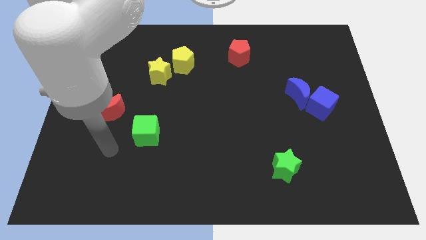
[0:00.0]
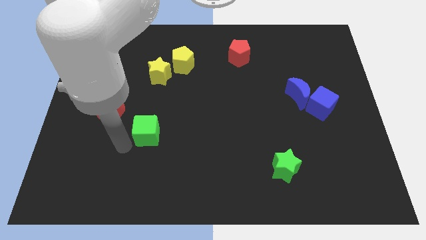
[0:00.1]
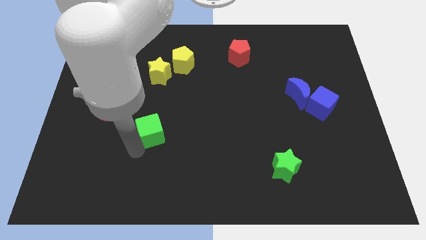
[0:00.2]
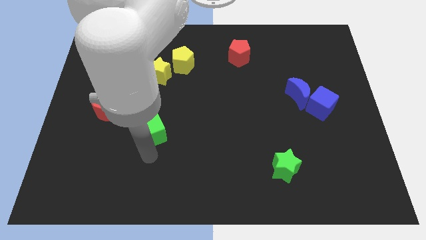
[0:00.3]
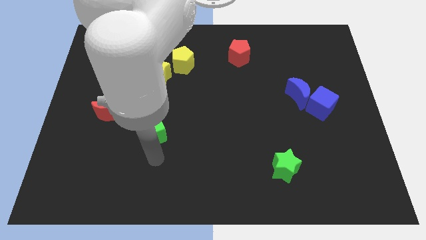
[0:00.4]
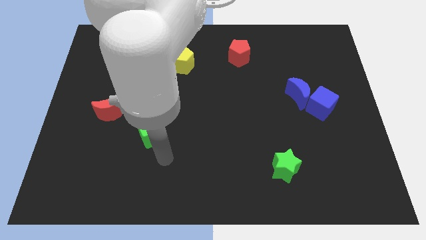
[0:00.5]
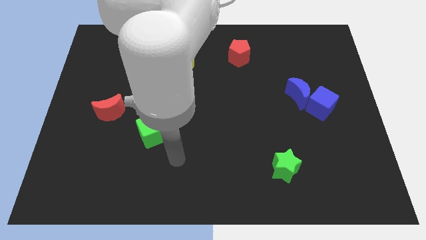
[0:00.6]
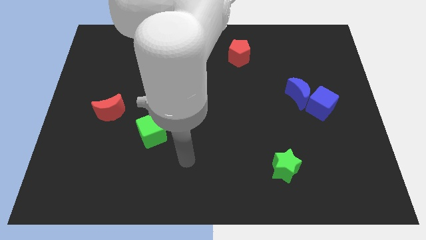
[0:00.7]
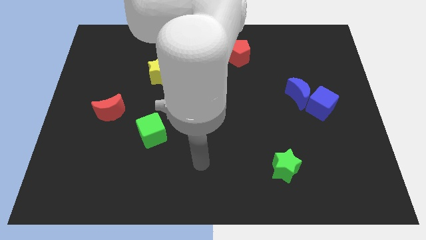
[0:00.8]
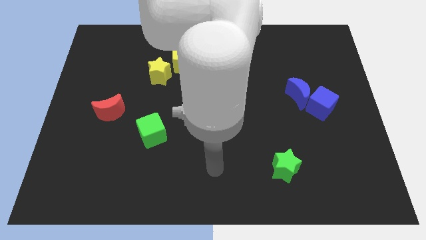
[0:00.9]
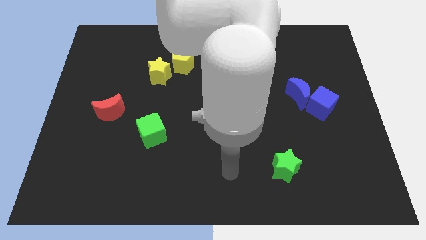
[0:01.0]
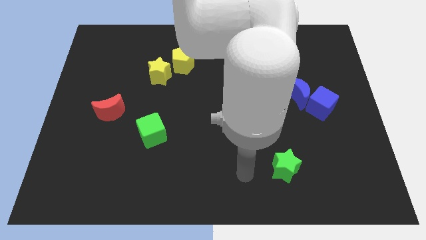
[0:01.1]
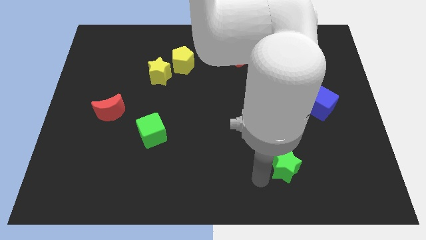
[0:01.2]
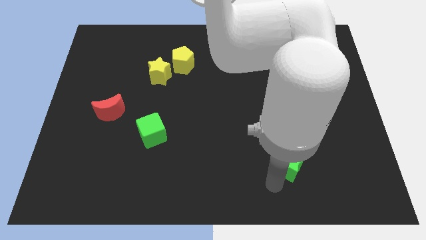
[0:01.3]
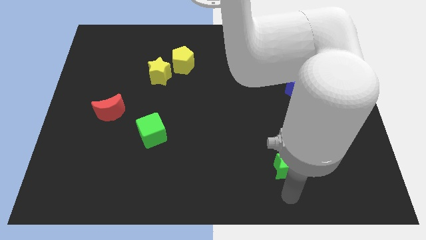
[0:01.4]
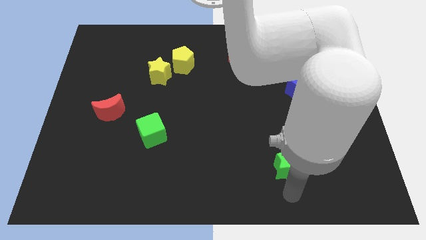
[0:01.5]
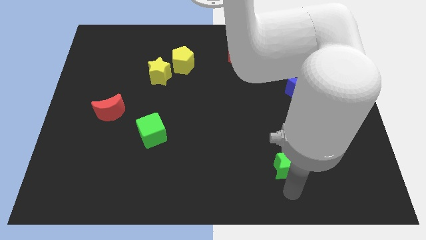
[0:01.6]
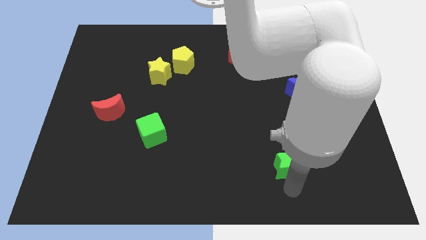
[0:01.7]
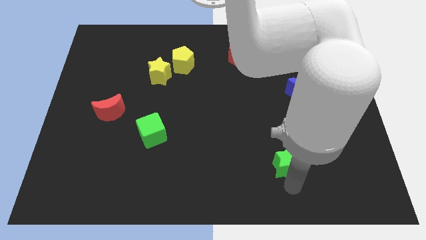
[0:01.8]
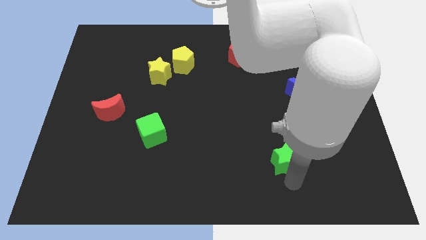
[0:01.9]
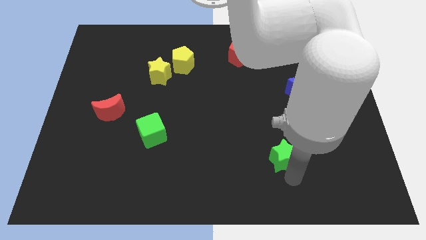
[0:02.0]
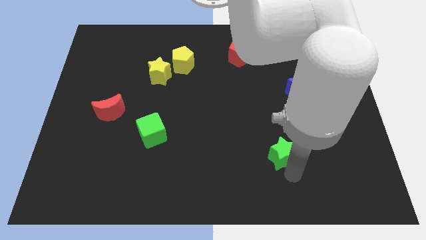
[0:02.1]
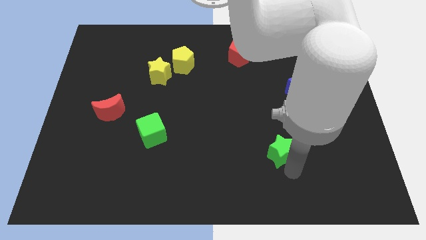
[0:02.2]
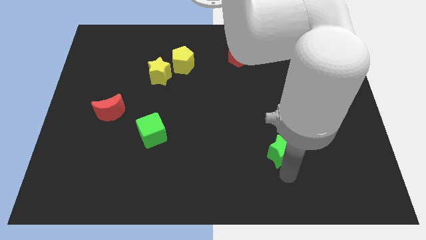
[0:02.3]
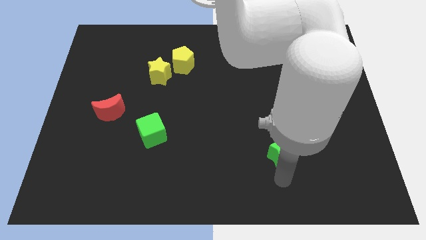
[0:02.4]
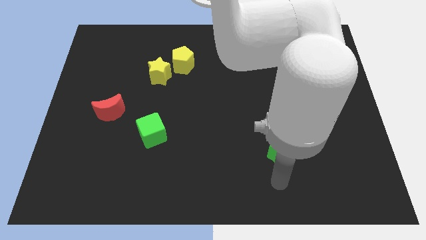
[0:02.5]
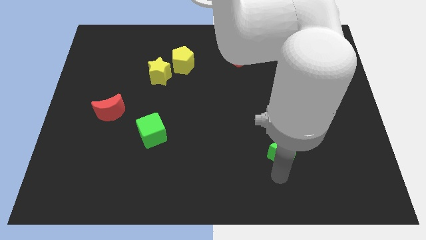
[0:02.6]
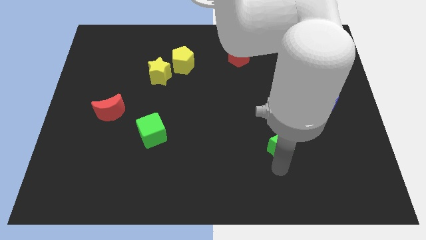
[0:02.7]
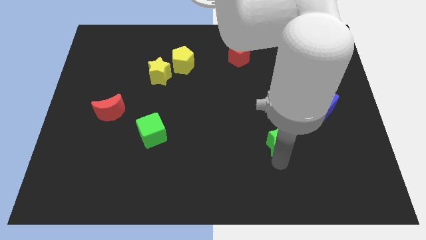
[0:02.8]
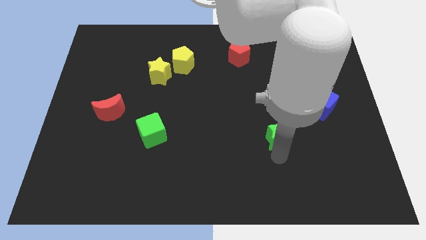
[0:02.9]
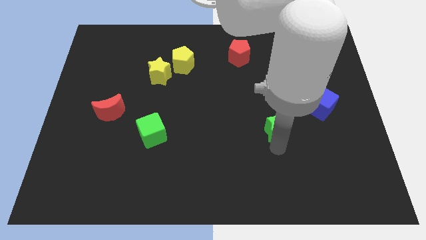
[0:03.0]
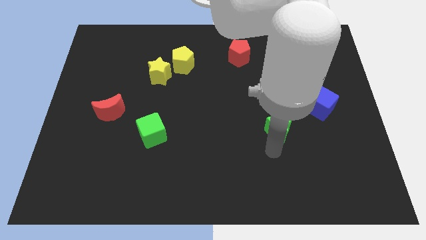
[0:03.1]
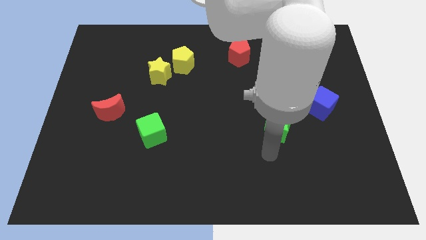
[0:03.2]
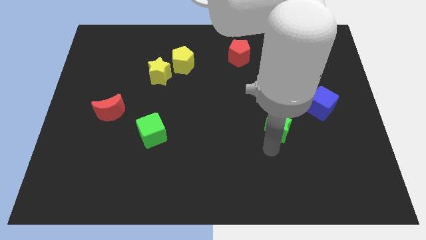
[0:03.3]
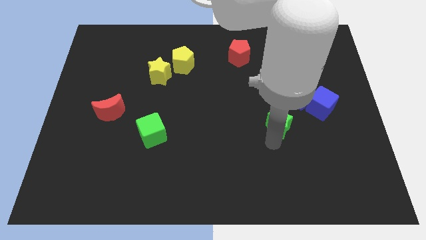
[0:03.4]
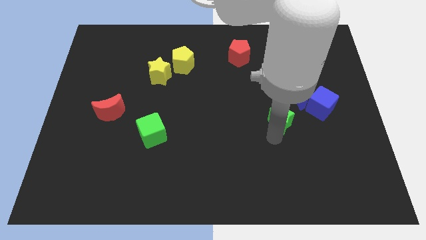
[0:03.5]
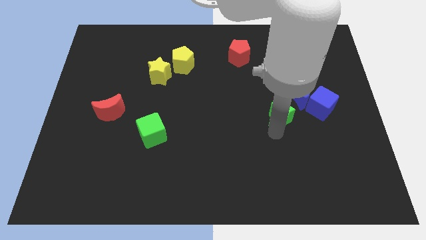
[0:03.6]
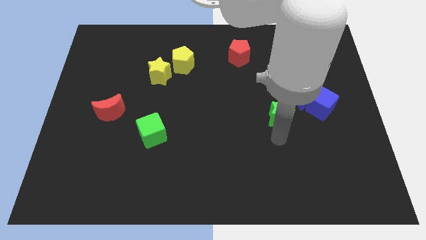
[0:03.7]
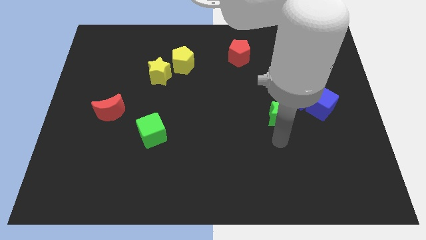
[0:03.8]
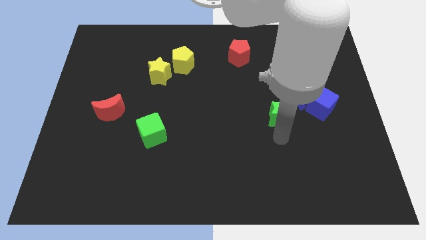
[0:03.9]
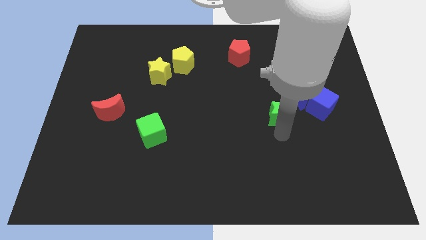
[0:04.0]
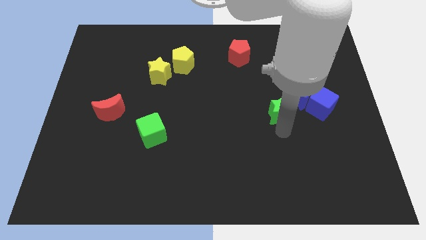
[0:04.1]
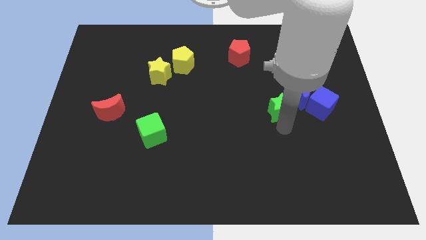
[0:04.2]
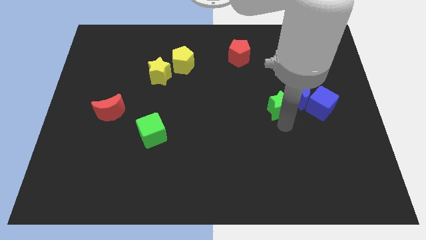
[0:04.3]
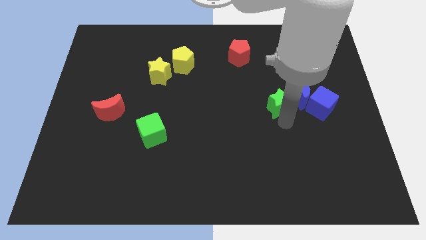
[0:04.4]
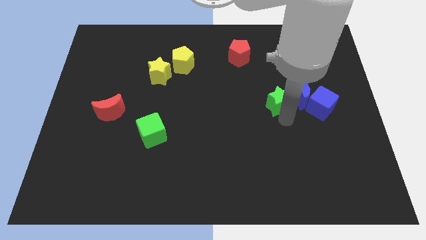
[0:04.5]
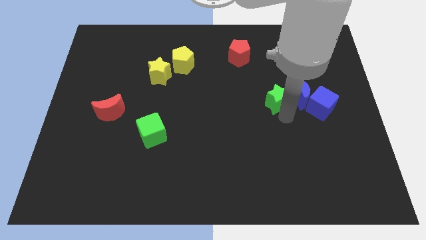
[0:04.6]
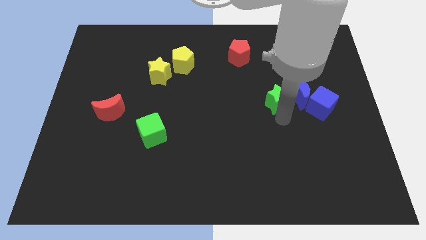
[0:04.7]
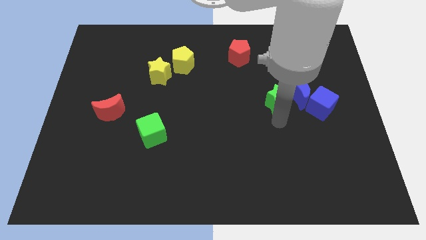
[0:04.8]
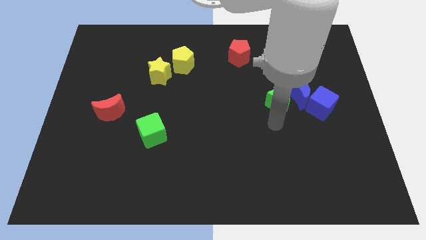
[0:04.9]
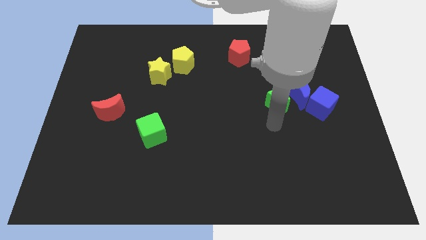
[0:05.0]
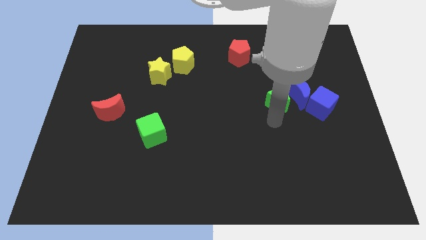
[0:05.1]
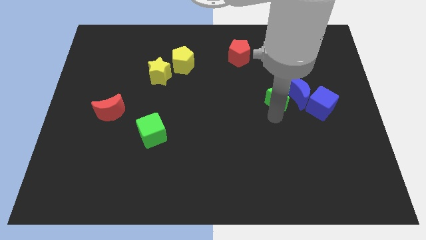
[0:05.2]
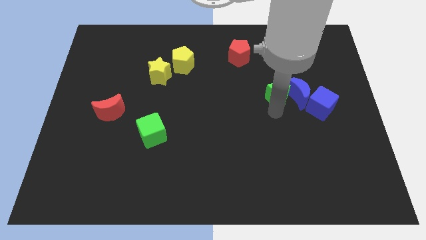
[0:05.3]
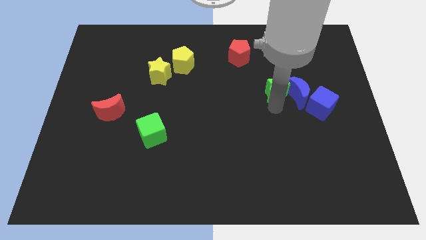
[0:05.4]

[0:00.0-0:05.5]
push the green star upwards

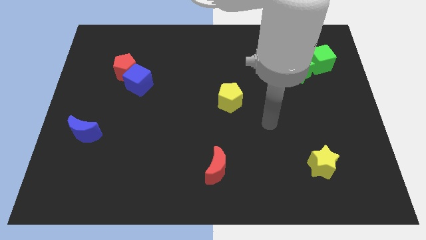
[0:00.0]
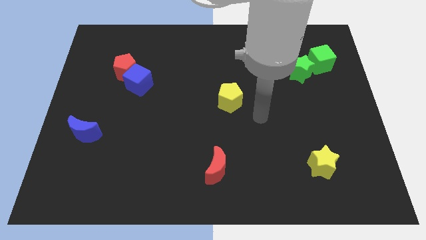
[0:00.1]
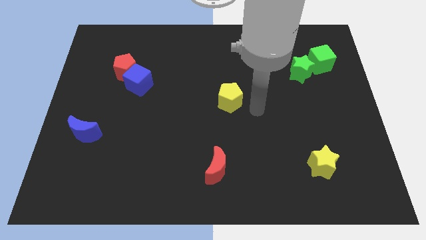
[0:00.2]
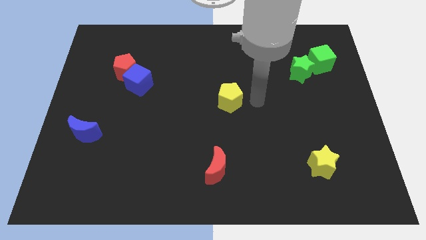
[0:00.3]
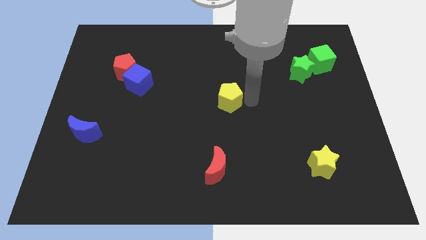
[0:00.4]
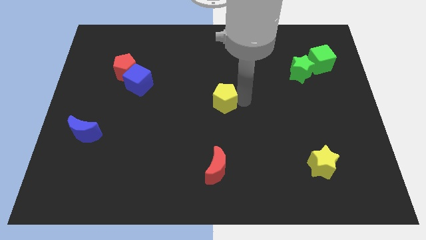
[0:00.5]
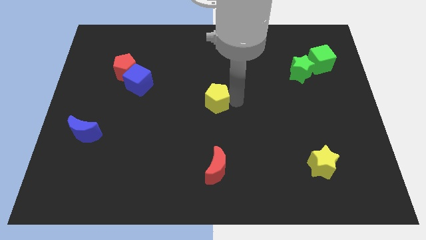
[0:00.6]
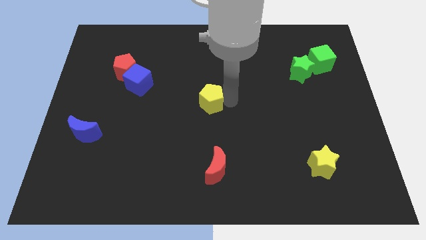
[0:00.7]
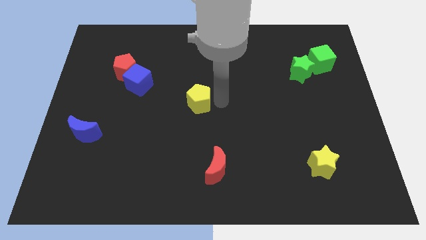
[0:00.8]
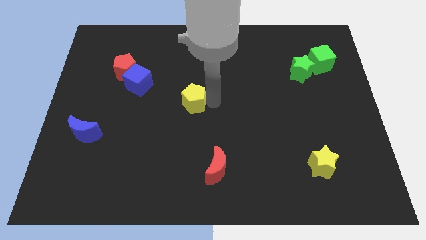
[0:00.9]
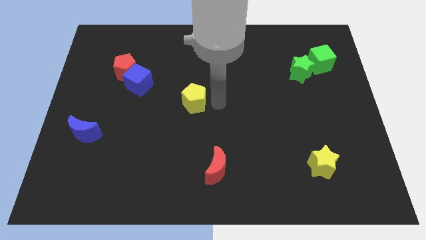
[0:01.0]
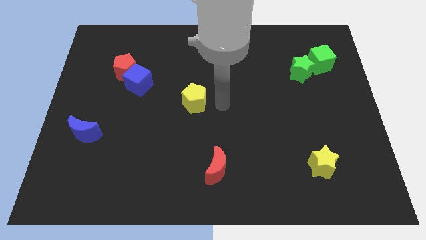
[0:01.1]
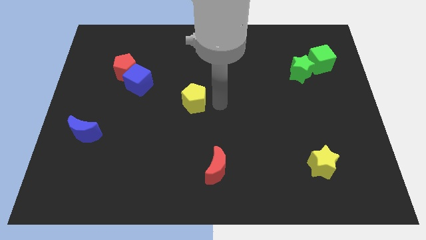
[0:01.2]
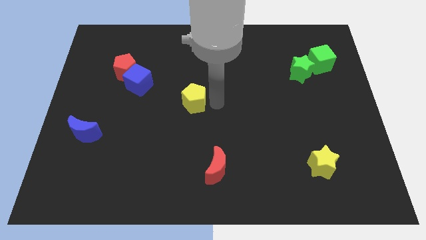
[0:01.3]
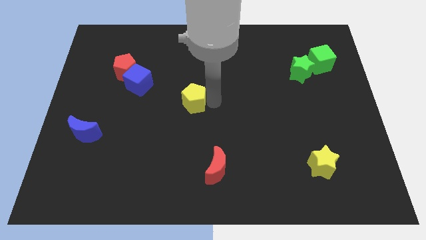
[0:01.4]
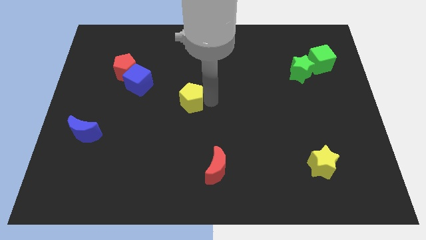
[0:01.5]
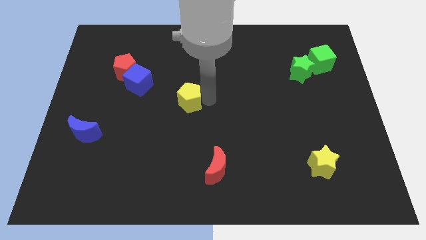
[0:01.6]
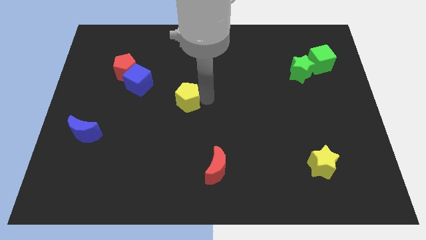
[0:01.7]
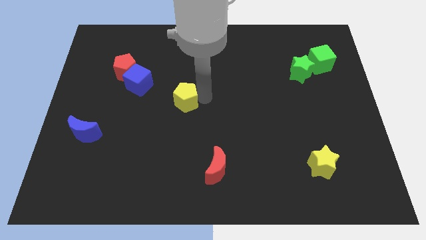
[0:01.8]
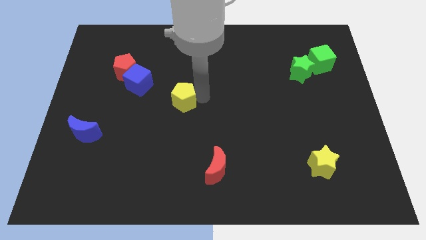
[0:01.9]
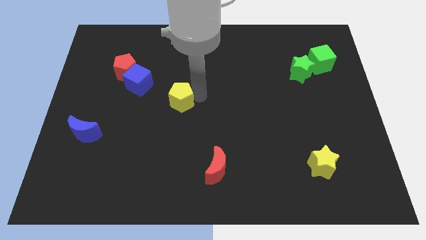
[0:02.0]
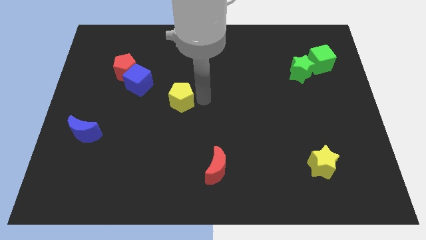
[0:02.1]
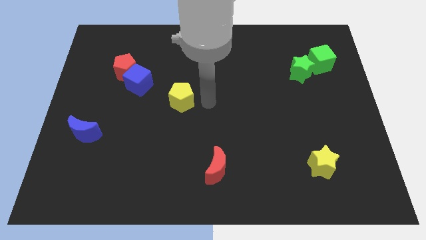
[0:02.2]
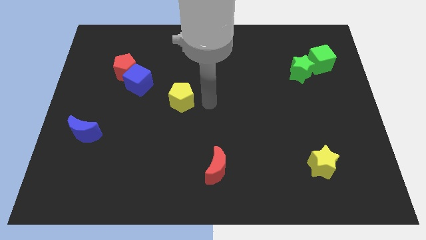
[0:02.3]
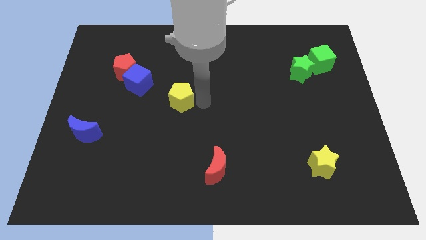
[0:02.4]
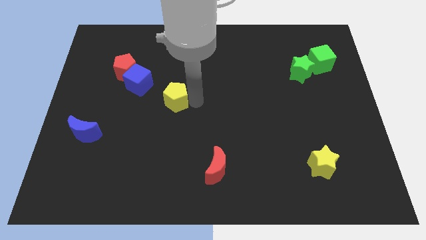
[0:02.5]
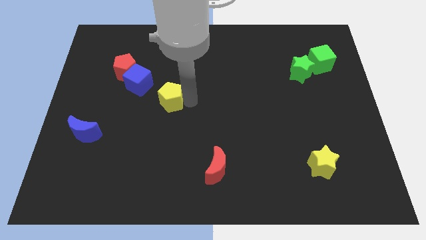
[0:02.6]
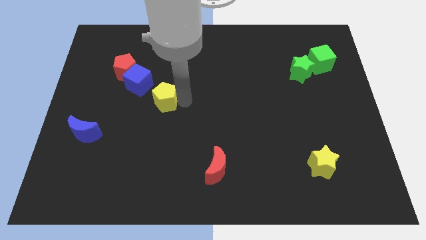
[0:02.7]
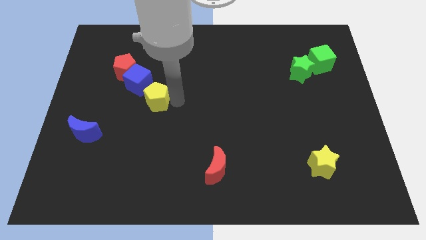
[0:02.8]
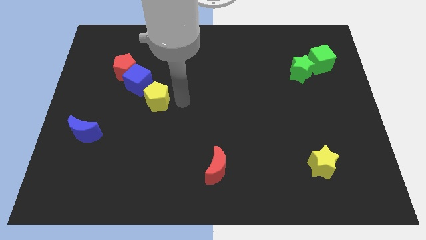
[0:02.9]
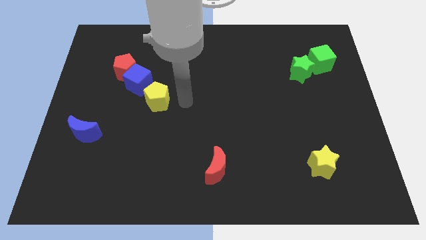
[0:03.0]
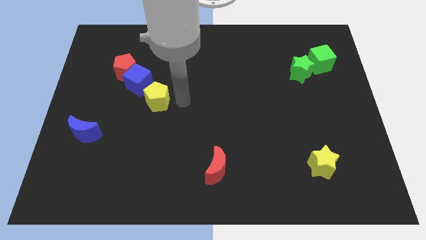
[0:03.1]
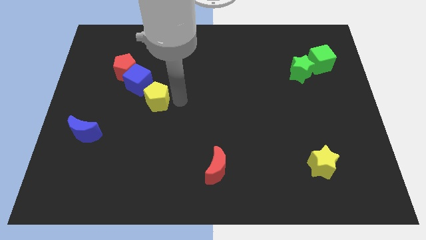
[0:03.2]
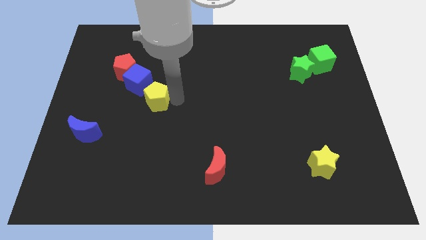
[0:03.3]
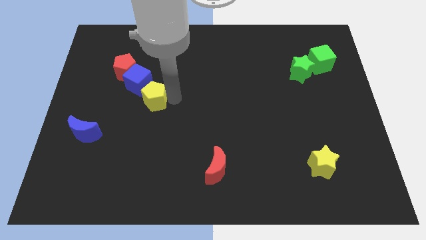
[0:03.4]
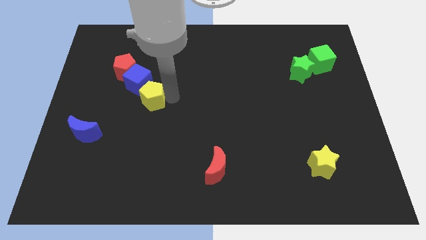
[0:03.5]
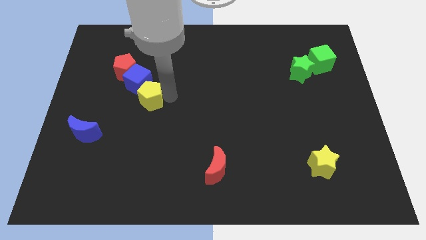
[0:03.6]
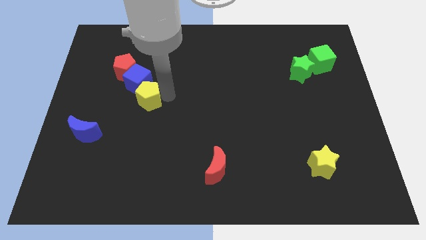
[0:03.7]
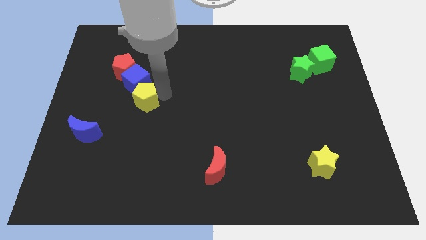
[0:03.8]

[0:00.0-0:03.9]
move the yellow pentagon left
